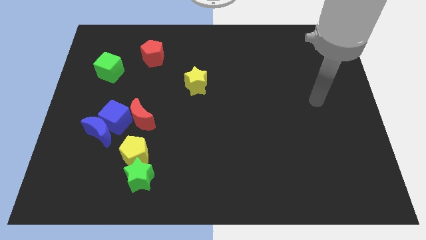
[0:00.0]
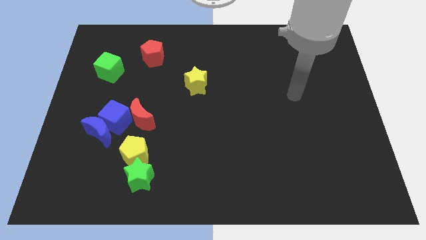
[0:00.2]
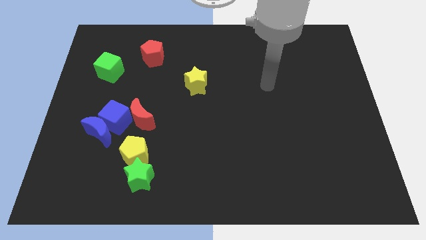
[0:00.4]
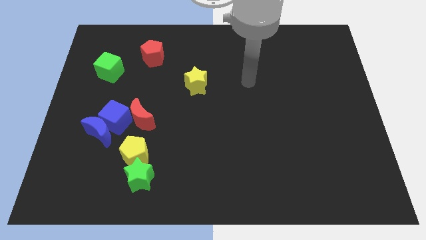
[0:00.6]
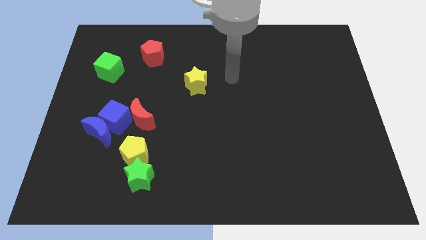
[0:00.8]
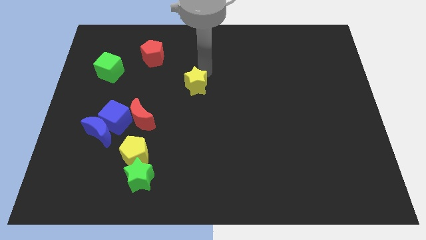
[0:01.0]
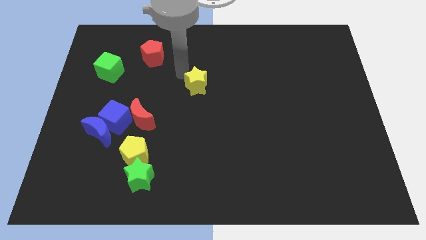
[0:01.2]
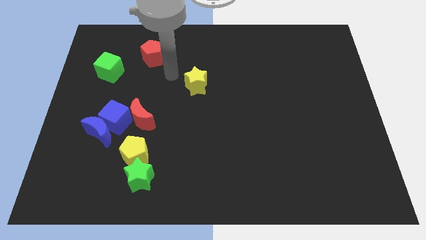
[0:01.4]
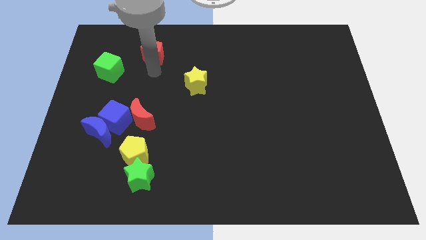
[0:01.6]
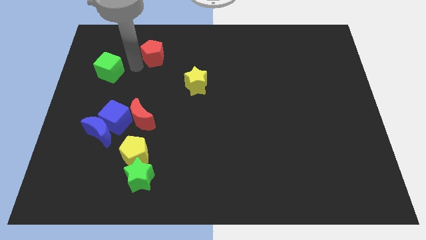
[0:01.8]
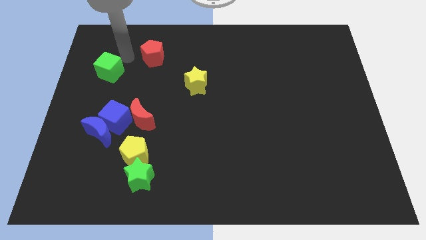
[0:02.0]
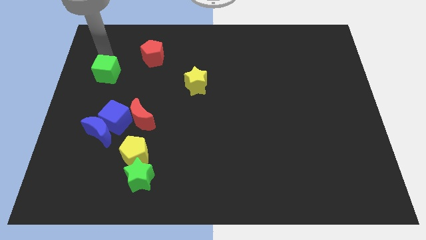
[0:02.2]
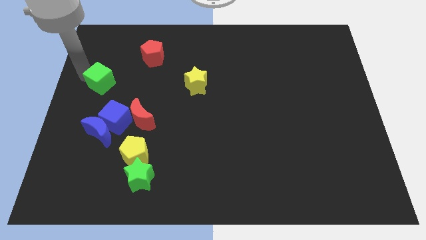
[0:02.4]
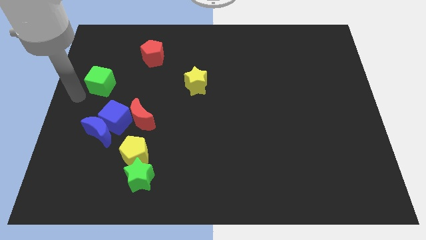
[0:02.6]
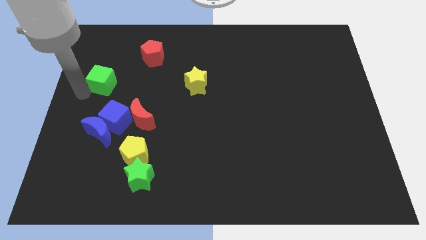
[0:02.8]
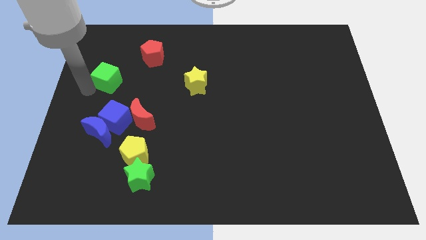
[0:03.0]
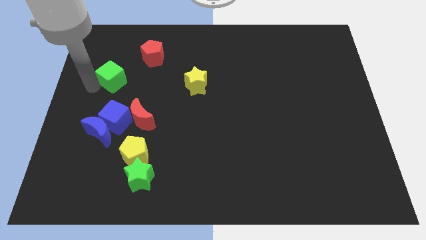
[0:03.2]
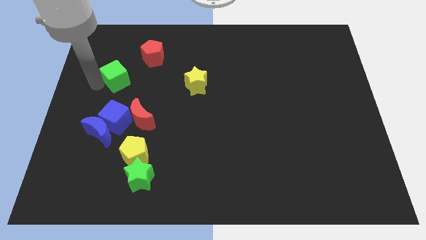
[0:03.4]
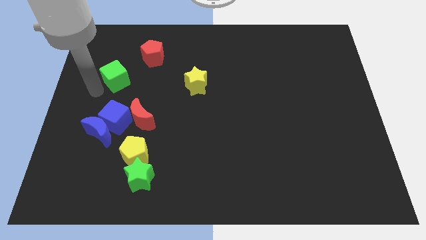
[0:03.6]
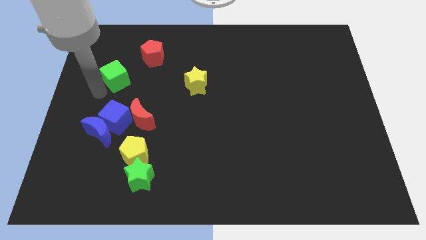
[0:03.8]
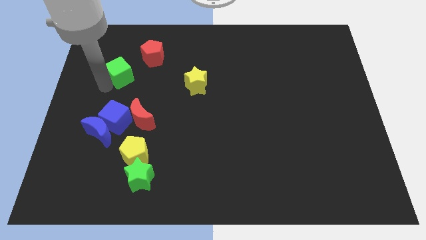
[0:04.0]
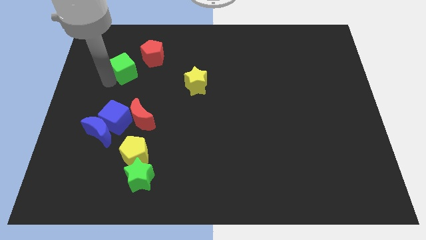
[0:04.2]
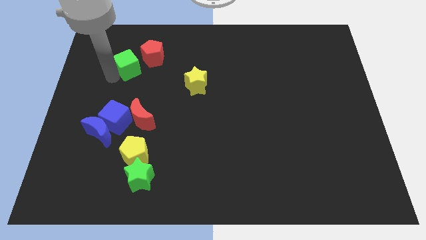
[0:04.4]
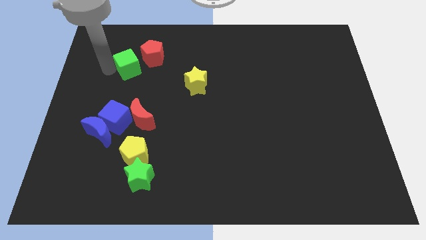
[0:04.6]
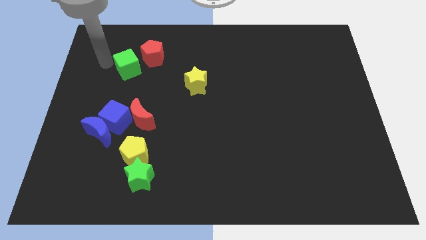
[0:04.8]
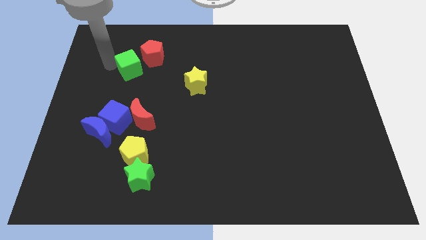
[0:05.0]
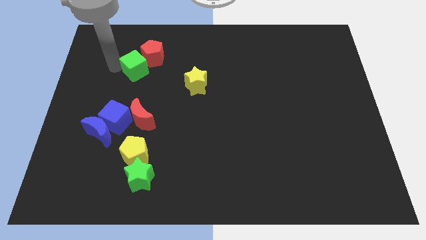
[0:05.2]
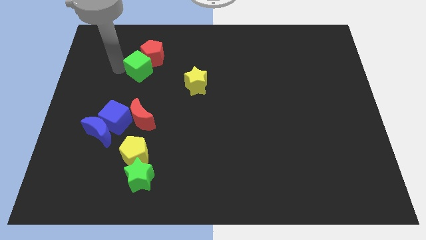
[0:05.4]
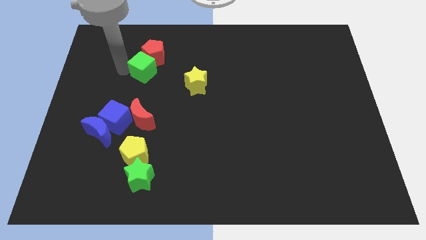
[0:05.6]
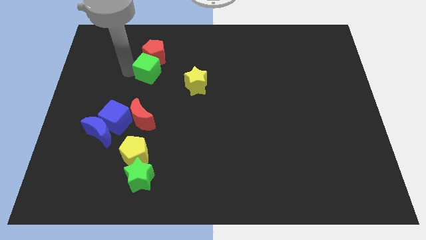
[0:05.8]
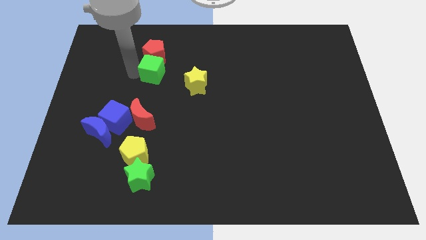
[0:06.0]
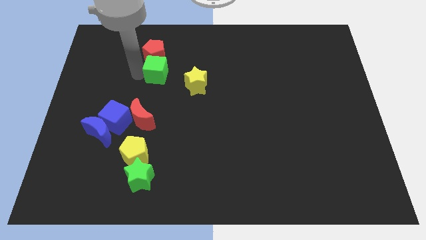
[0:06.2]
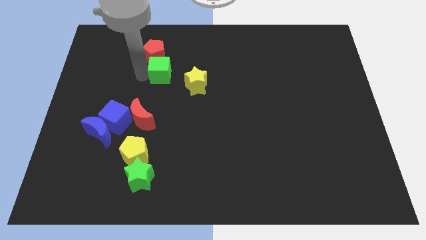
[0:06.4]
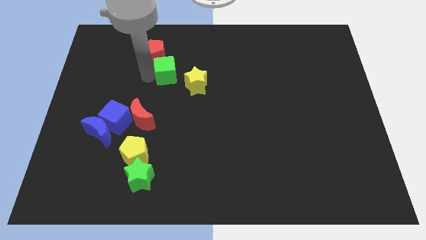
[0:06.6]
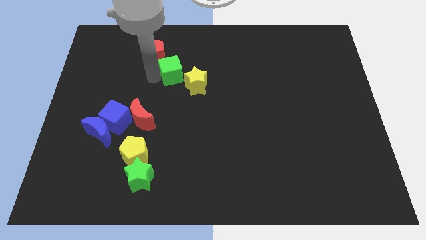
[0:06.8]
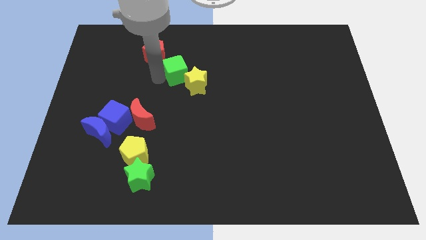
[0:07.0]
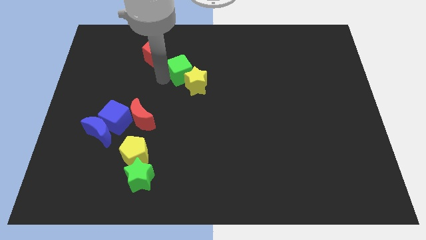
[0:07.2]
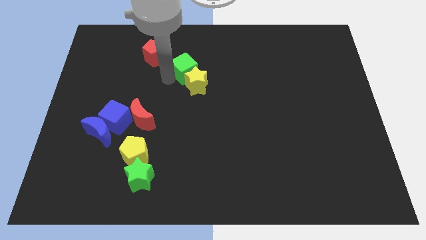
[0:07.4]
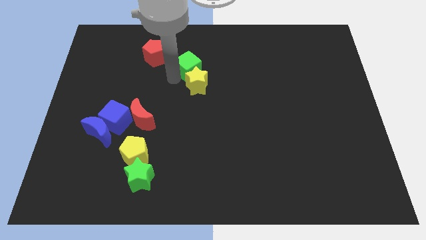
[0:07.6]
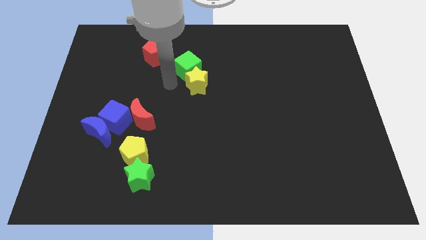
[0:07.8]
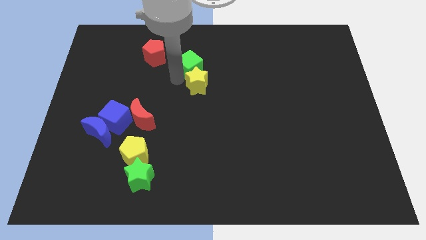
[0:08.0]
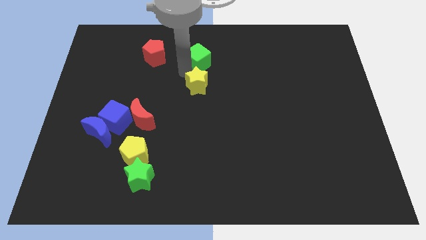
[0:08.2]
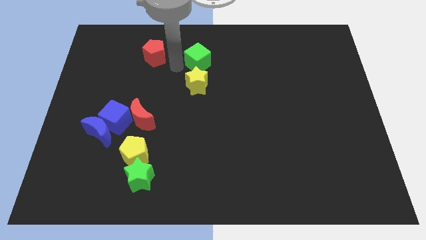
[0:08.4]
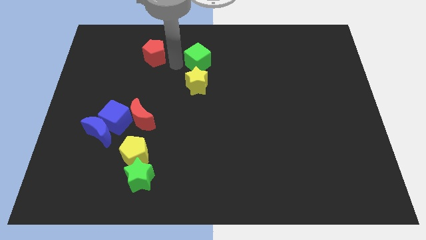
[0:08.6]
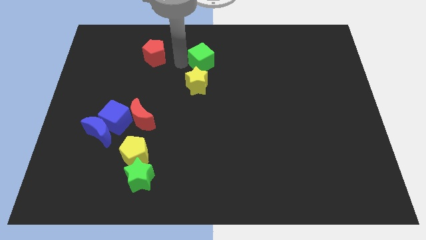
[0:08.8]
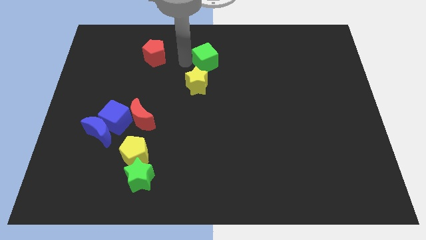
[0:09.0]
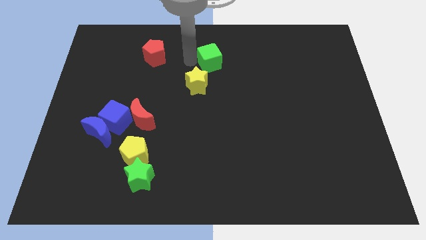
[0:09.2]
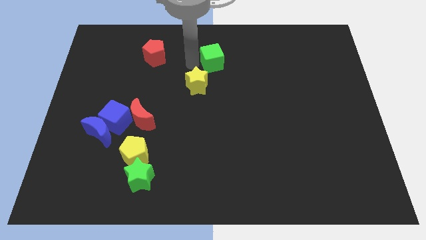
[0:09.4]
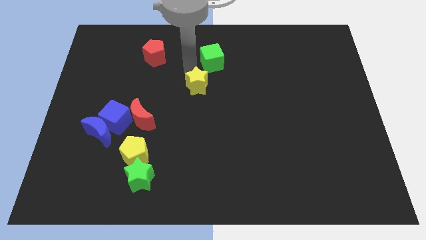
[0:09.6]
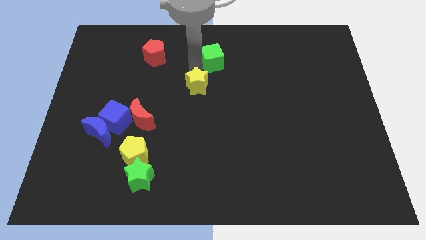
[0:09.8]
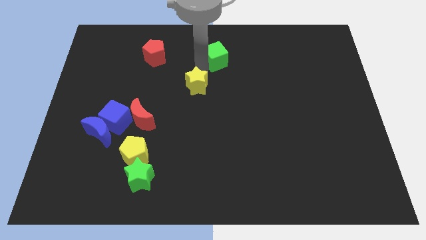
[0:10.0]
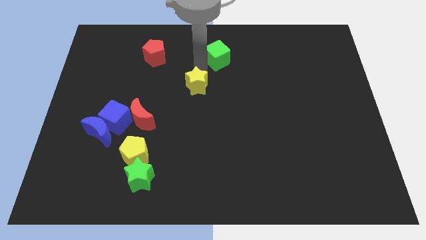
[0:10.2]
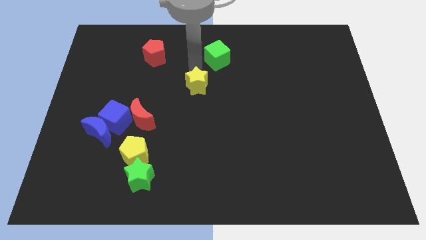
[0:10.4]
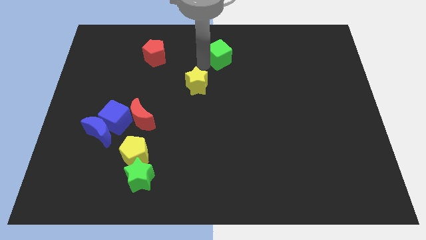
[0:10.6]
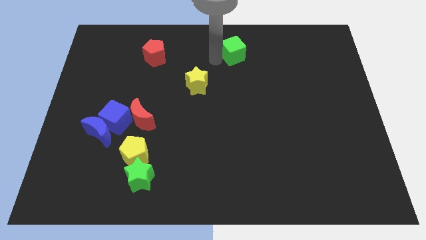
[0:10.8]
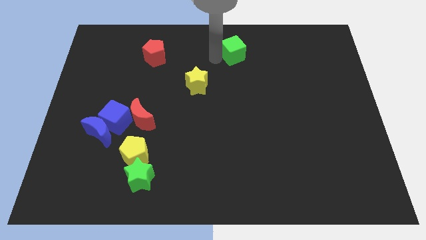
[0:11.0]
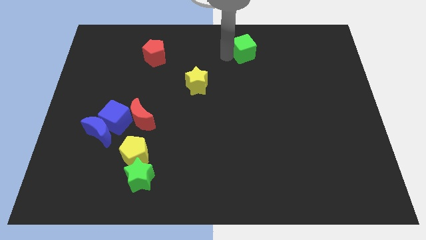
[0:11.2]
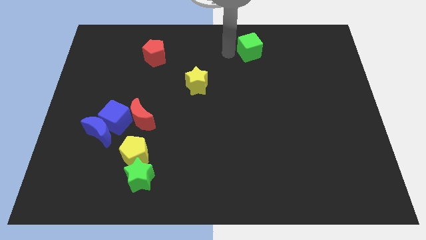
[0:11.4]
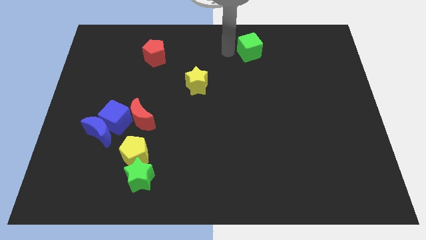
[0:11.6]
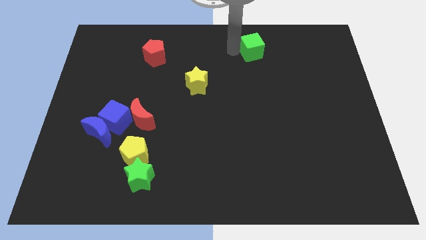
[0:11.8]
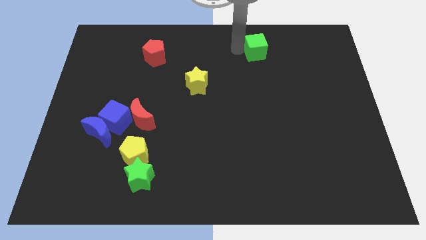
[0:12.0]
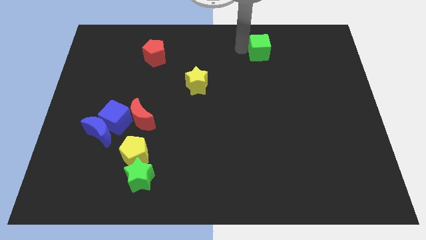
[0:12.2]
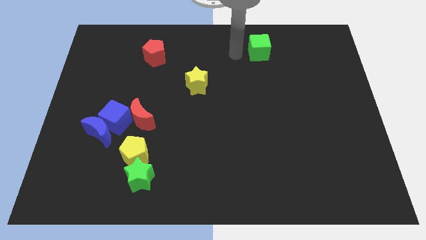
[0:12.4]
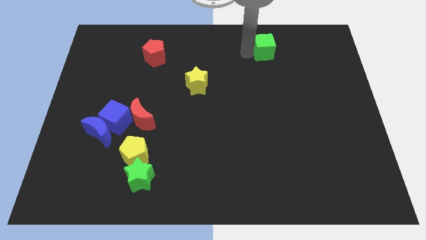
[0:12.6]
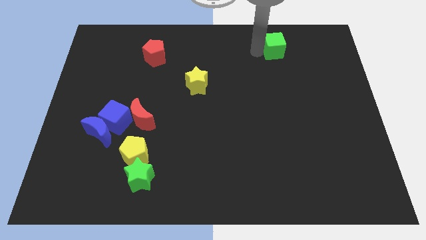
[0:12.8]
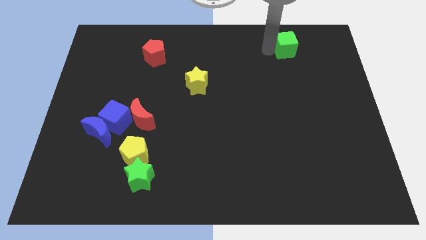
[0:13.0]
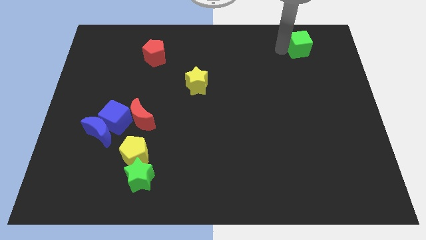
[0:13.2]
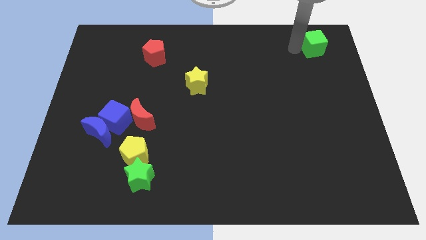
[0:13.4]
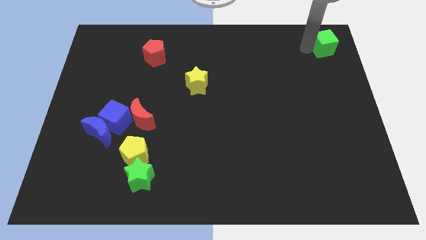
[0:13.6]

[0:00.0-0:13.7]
move the green cube to the top right
